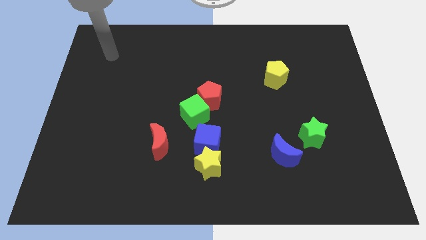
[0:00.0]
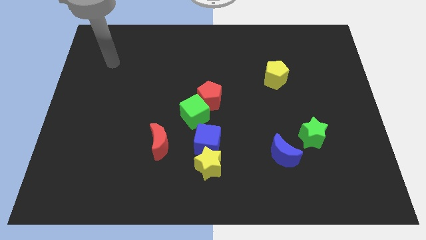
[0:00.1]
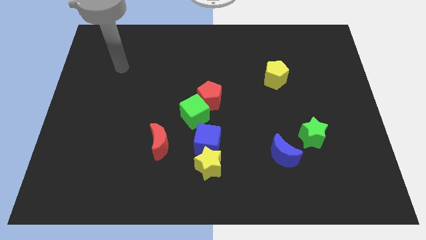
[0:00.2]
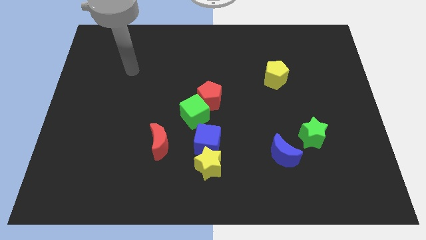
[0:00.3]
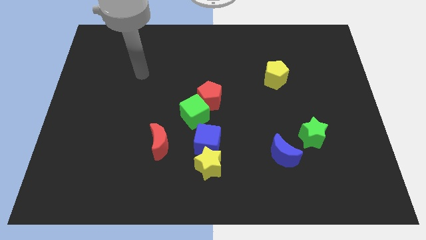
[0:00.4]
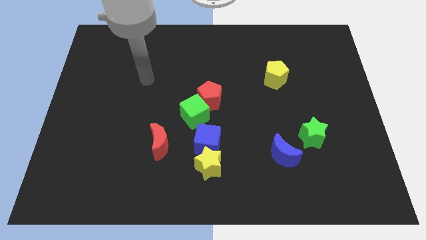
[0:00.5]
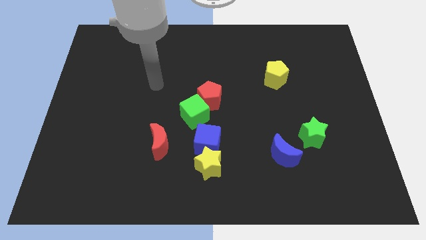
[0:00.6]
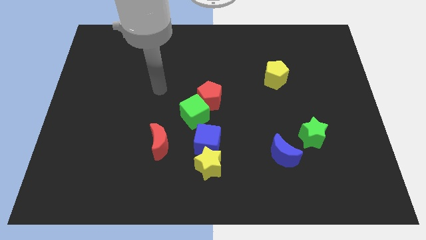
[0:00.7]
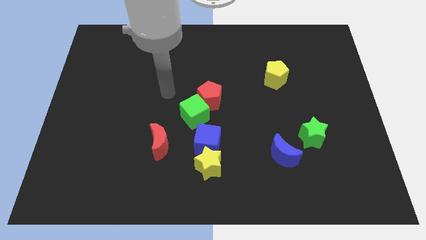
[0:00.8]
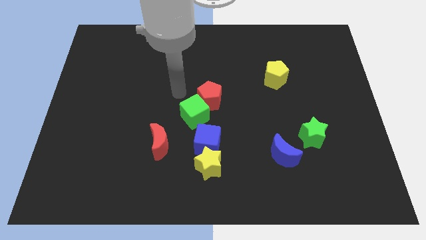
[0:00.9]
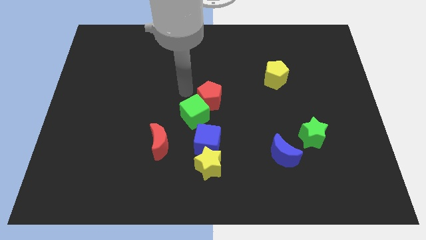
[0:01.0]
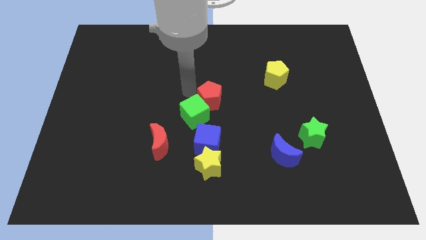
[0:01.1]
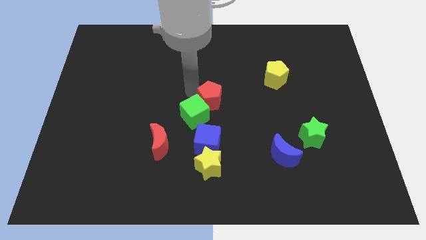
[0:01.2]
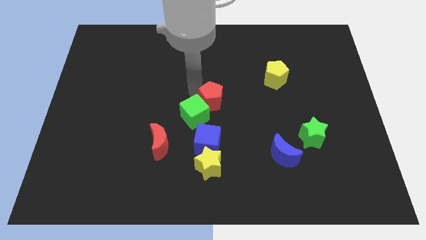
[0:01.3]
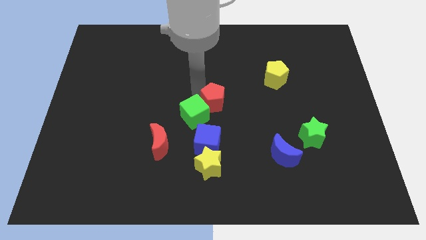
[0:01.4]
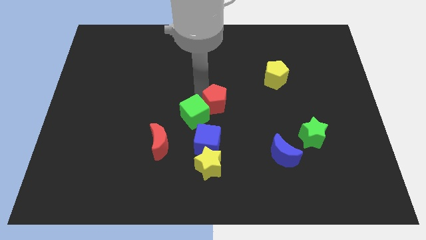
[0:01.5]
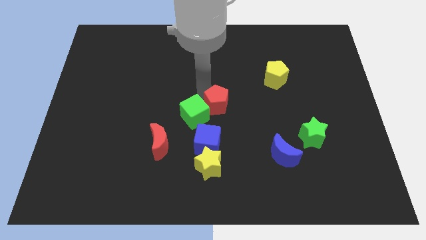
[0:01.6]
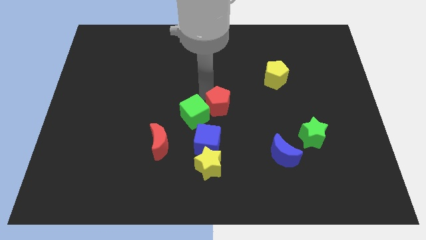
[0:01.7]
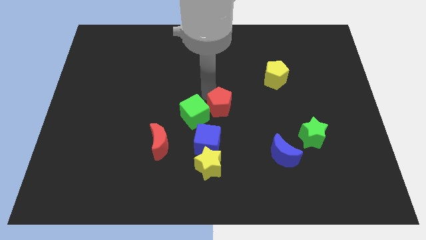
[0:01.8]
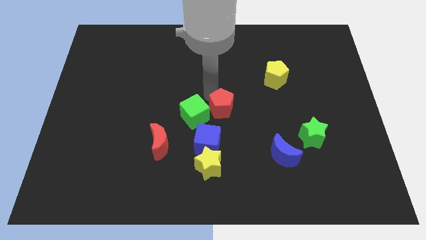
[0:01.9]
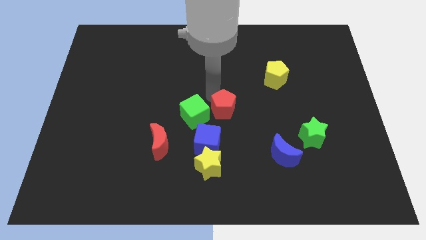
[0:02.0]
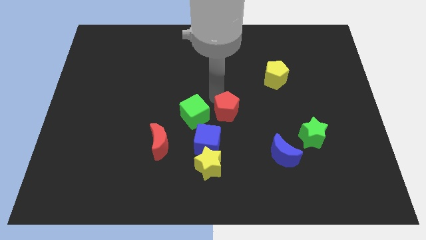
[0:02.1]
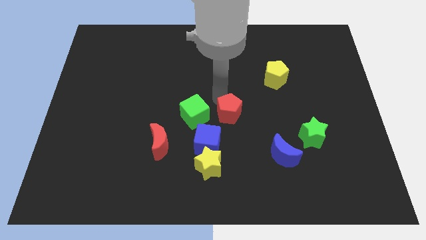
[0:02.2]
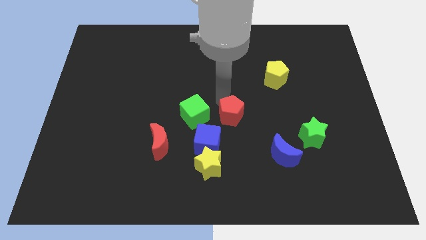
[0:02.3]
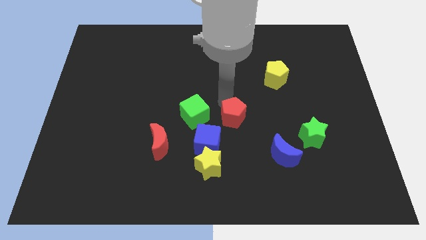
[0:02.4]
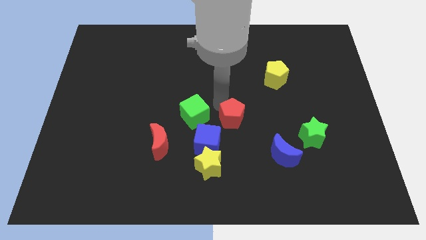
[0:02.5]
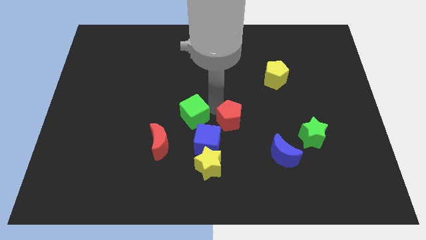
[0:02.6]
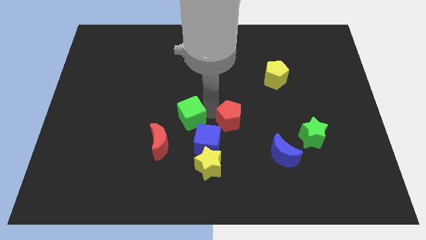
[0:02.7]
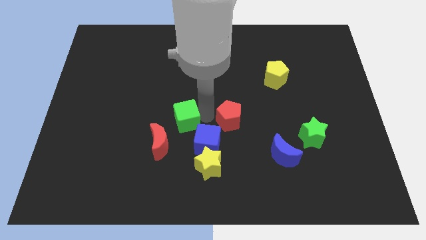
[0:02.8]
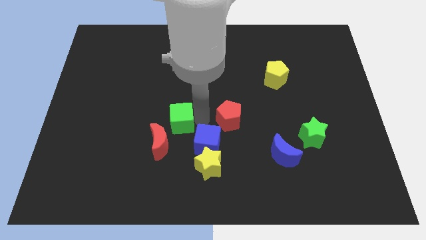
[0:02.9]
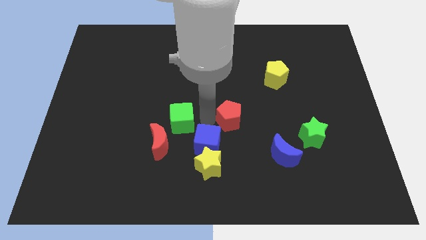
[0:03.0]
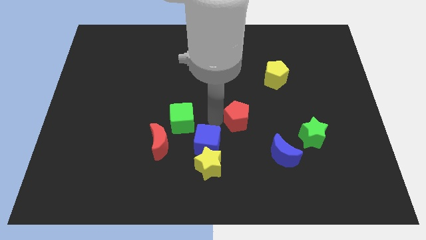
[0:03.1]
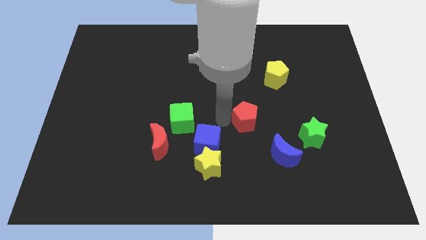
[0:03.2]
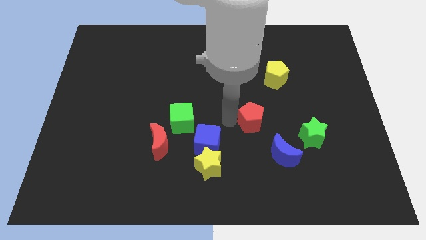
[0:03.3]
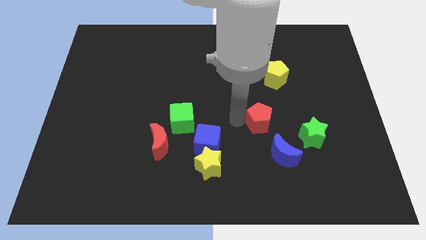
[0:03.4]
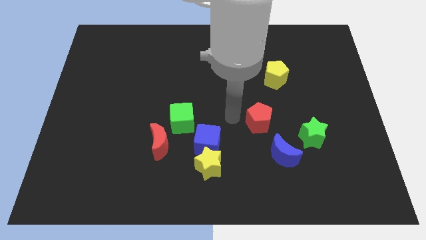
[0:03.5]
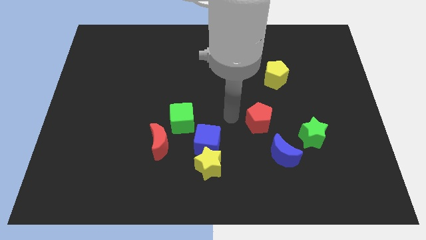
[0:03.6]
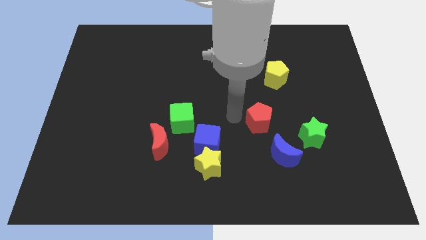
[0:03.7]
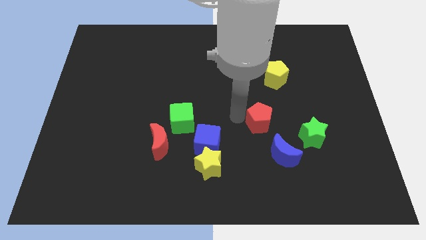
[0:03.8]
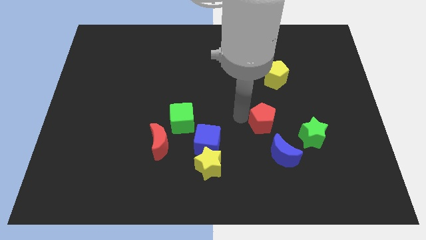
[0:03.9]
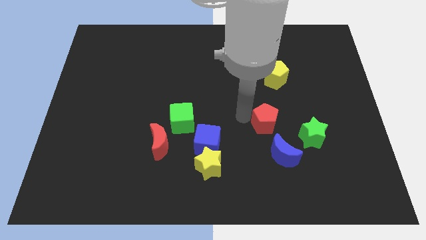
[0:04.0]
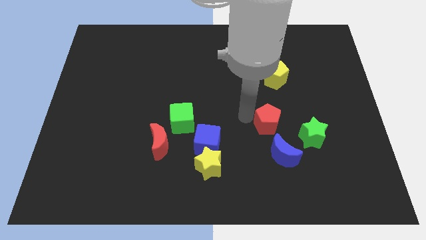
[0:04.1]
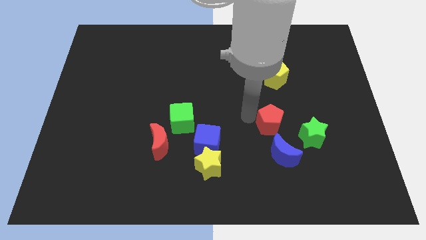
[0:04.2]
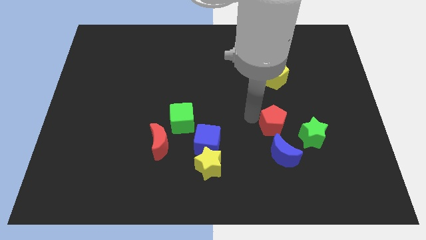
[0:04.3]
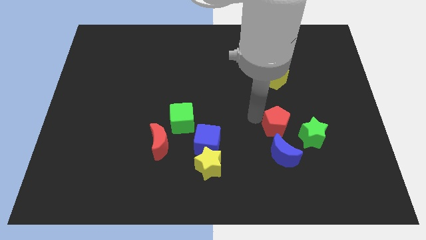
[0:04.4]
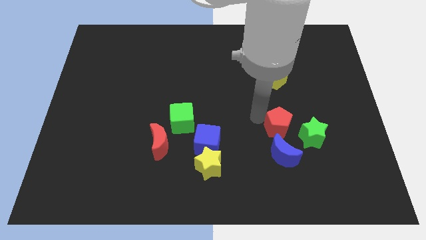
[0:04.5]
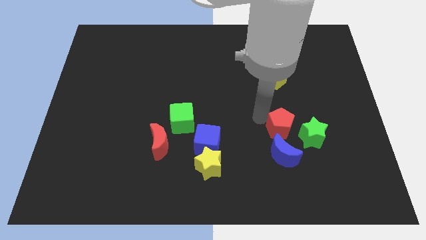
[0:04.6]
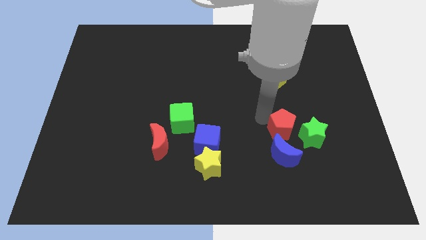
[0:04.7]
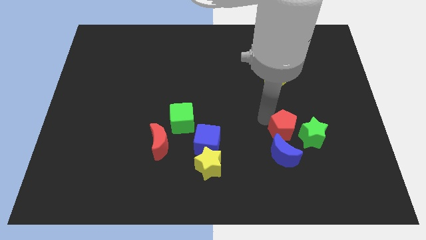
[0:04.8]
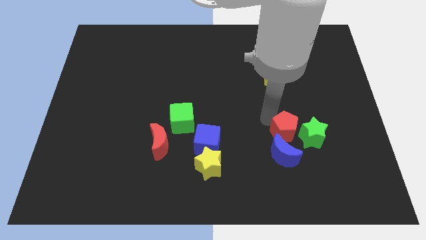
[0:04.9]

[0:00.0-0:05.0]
push the red pentagon next to the green star

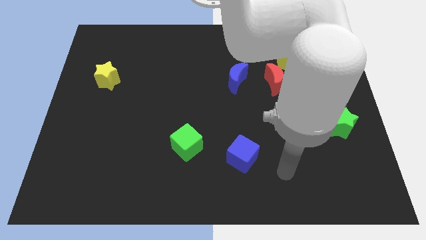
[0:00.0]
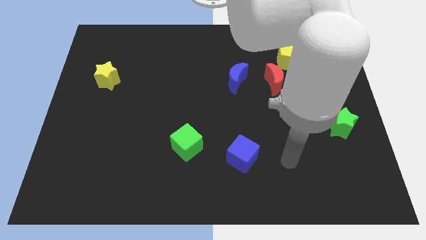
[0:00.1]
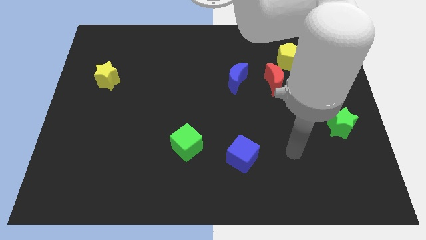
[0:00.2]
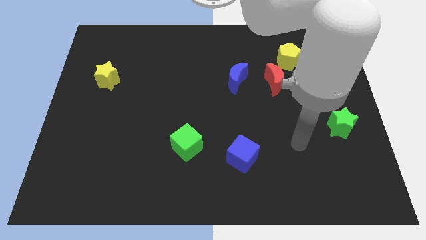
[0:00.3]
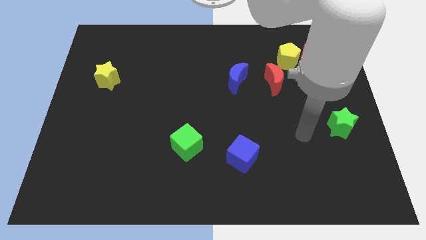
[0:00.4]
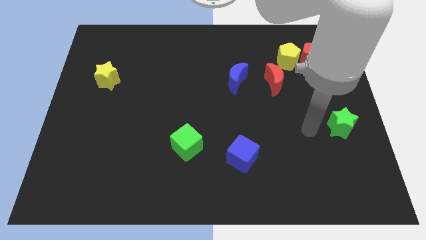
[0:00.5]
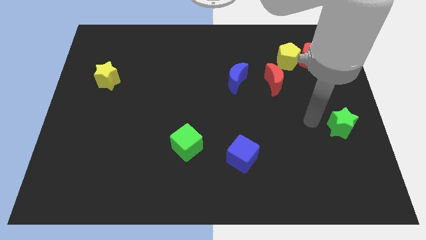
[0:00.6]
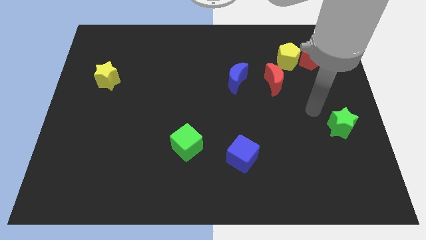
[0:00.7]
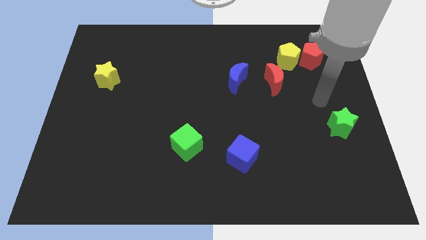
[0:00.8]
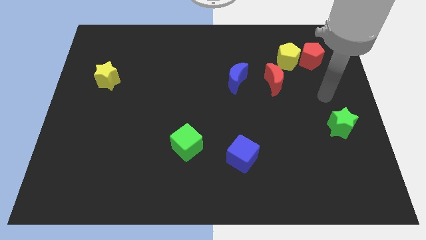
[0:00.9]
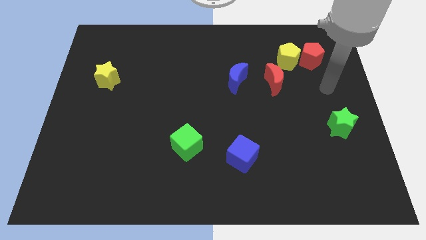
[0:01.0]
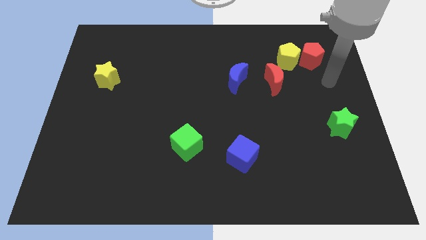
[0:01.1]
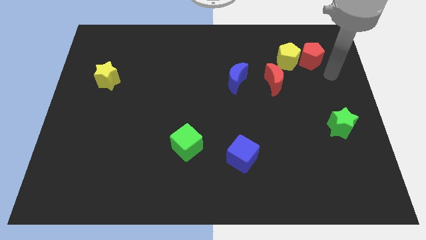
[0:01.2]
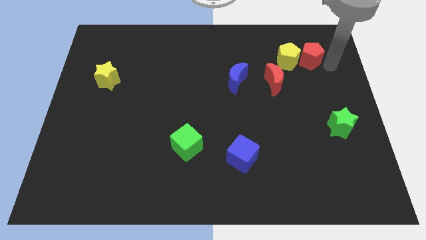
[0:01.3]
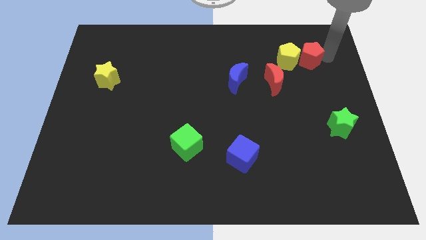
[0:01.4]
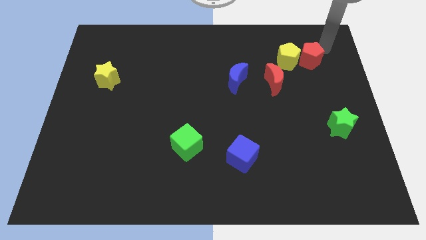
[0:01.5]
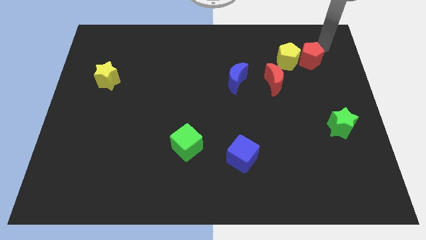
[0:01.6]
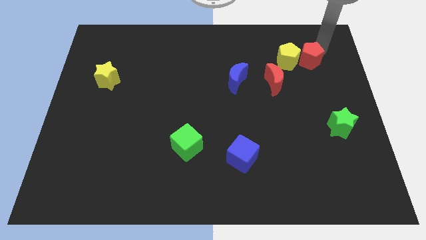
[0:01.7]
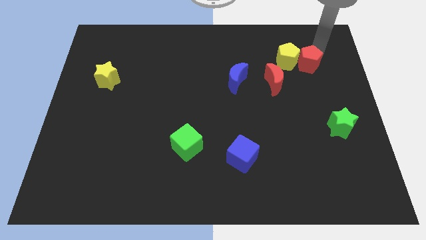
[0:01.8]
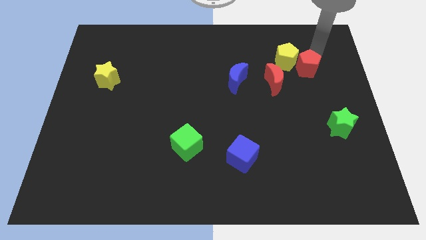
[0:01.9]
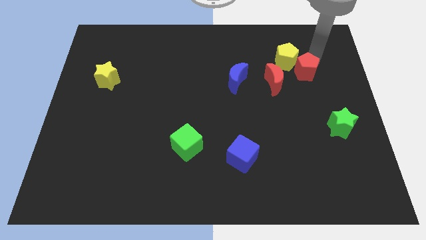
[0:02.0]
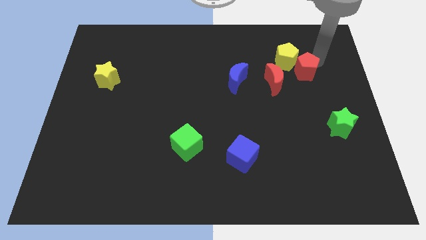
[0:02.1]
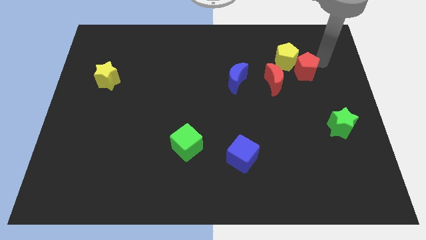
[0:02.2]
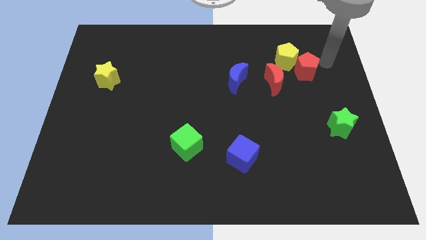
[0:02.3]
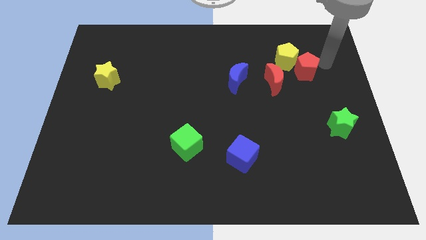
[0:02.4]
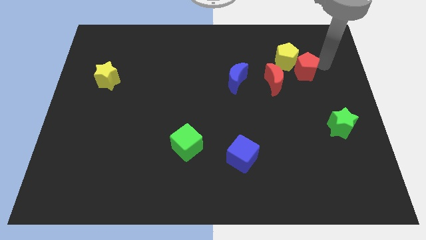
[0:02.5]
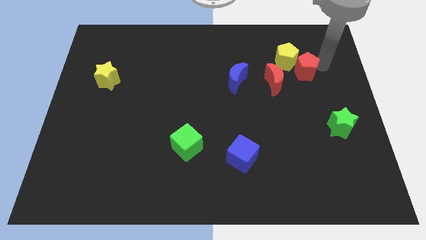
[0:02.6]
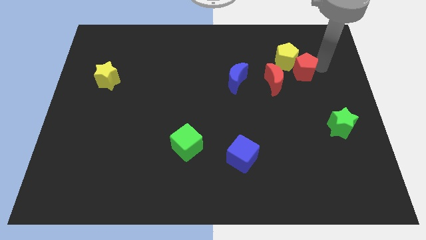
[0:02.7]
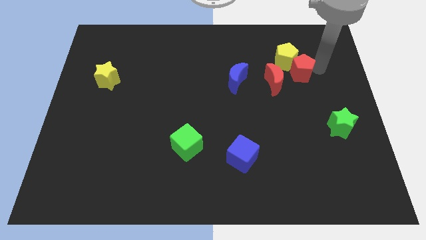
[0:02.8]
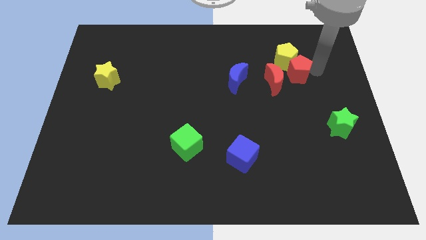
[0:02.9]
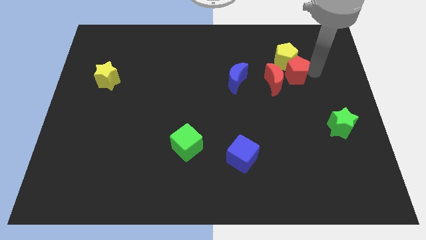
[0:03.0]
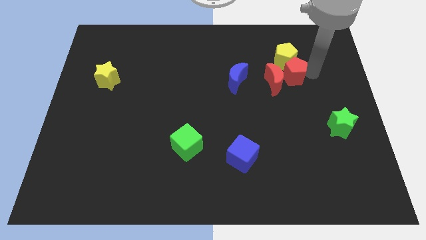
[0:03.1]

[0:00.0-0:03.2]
move the red pentagon to the red moon
